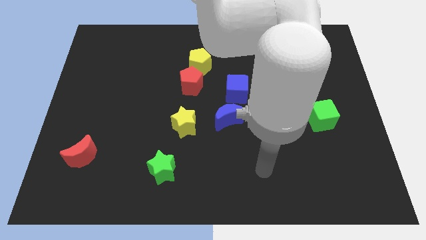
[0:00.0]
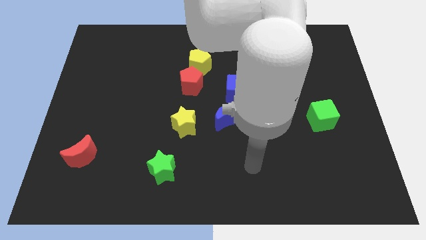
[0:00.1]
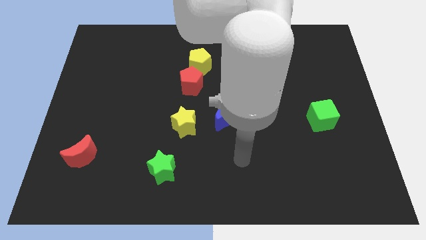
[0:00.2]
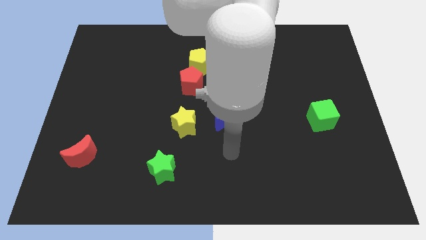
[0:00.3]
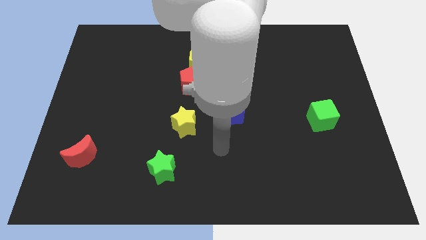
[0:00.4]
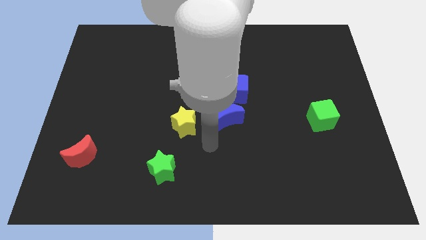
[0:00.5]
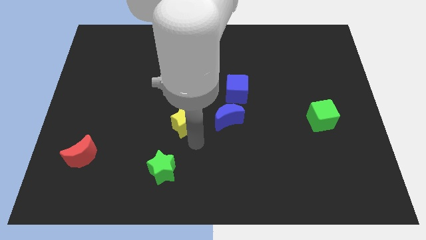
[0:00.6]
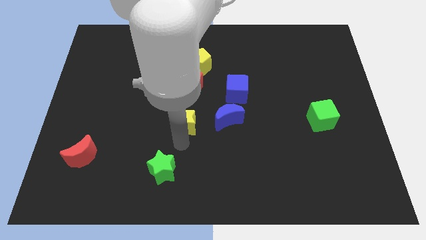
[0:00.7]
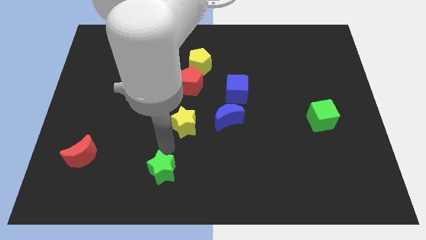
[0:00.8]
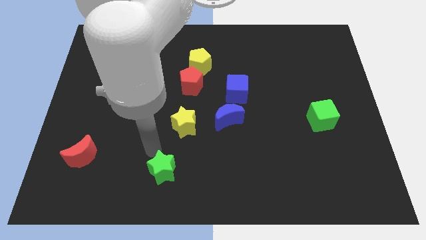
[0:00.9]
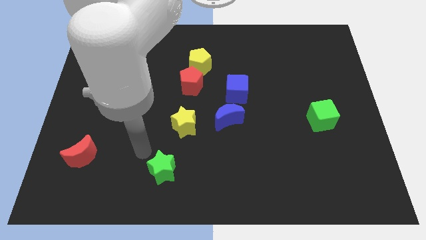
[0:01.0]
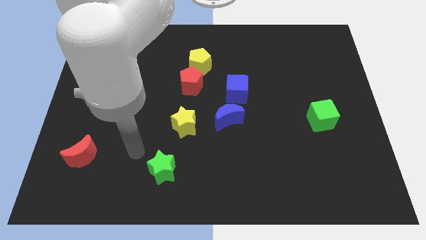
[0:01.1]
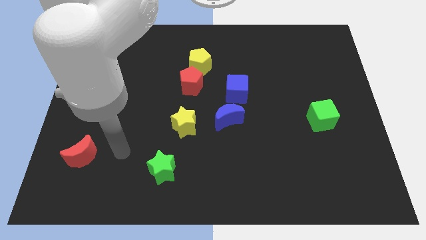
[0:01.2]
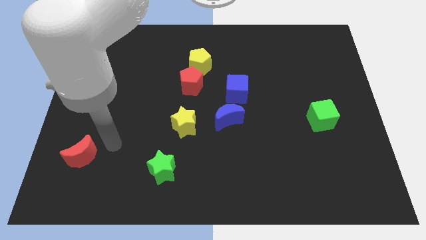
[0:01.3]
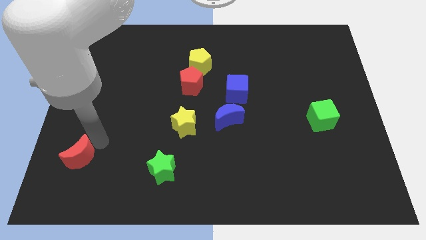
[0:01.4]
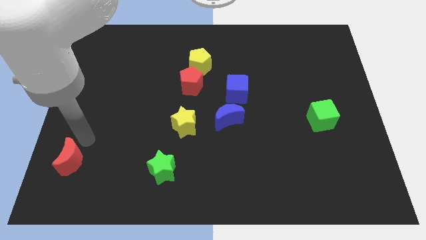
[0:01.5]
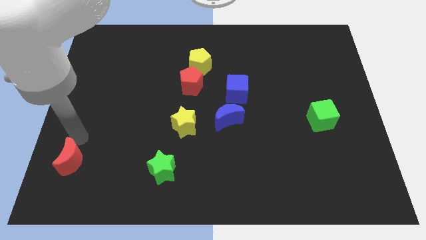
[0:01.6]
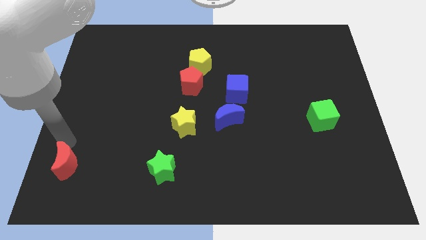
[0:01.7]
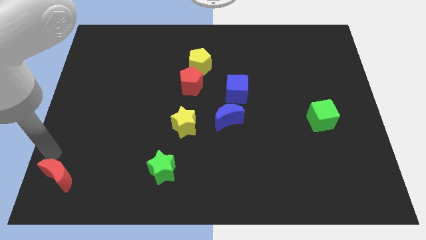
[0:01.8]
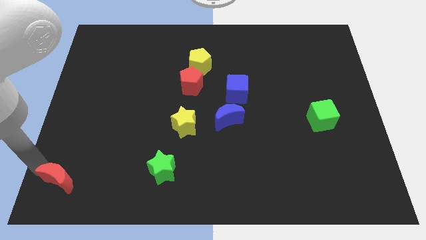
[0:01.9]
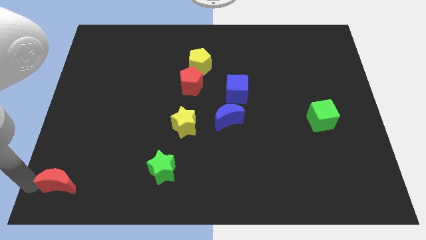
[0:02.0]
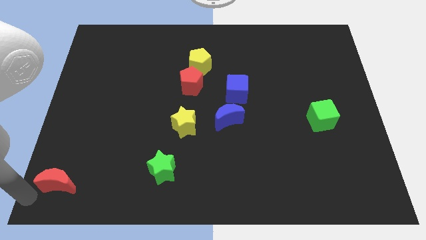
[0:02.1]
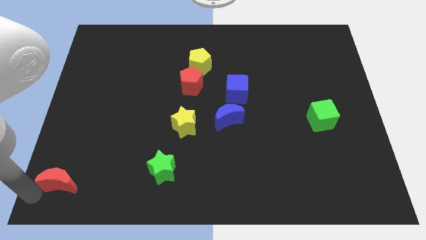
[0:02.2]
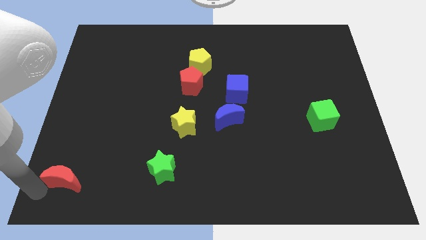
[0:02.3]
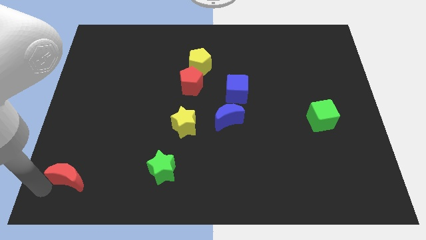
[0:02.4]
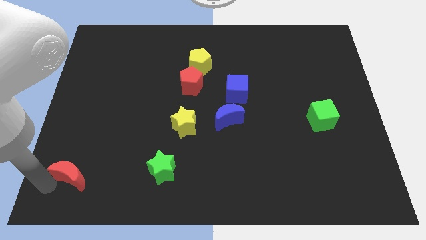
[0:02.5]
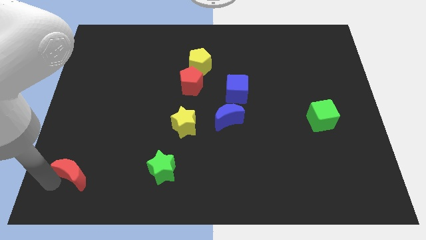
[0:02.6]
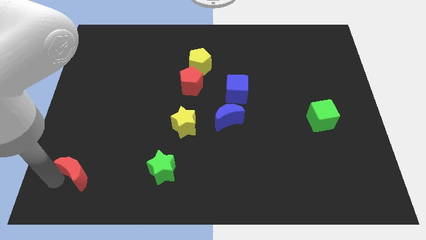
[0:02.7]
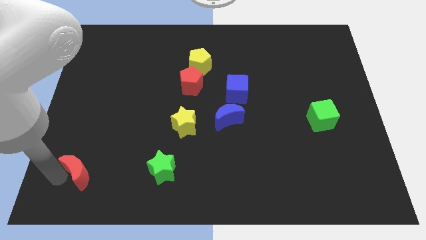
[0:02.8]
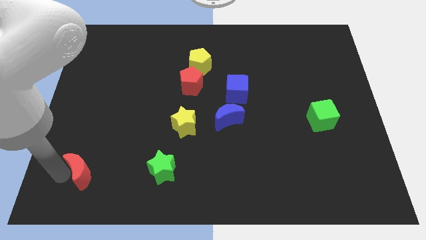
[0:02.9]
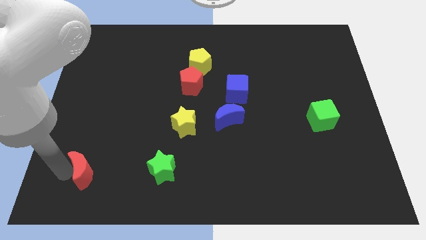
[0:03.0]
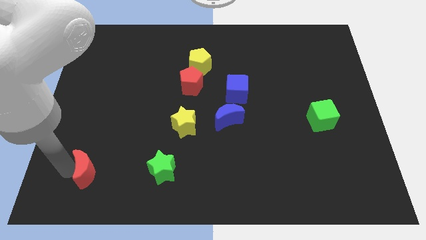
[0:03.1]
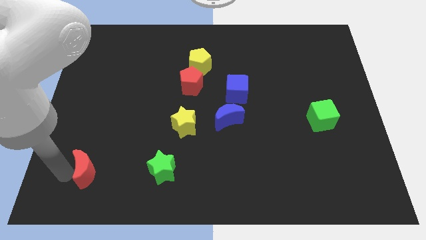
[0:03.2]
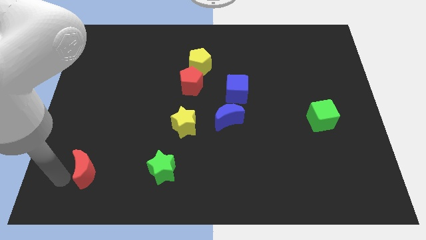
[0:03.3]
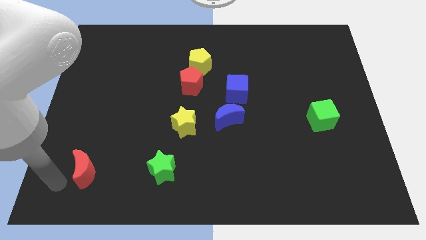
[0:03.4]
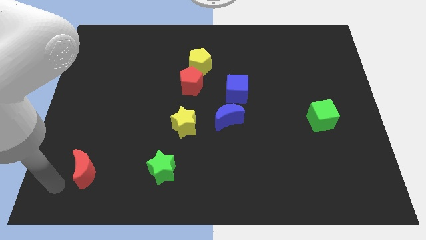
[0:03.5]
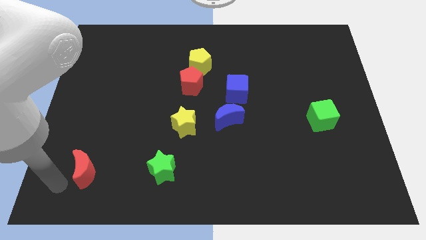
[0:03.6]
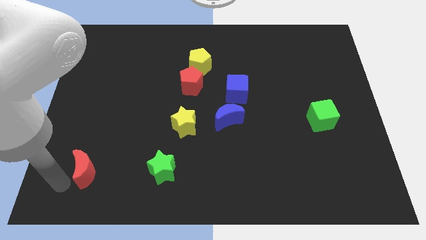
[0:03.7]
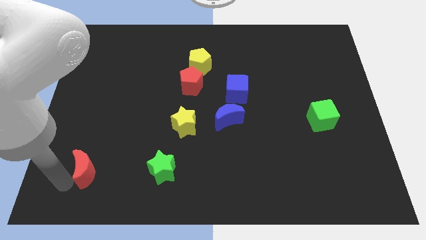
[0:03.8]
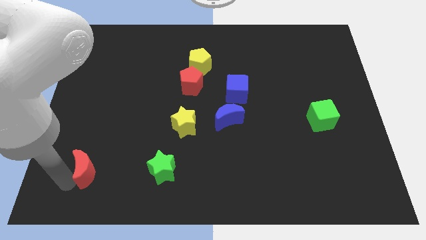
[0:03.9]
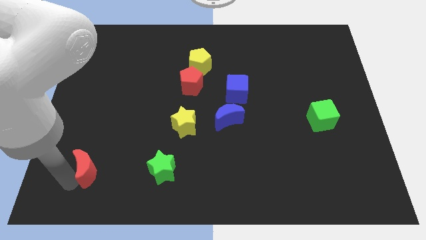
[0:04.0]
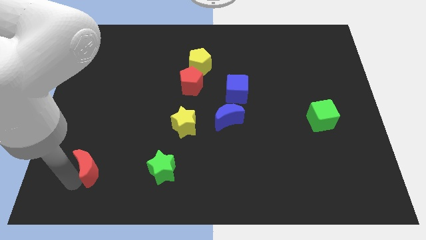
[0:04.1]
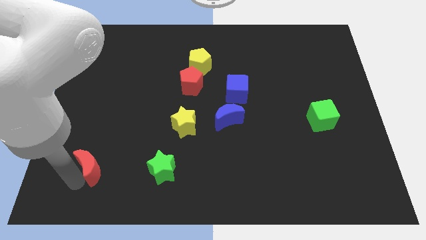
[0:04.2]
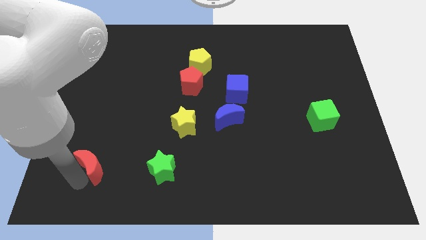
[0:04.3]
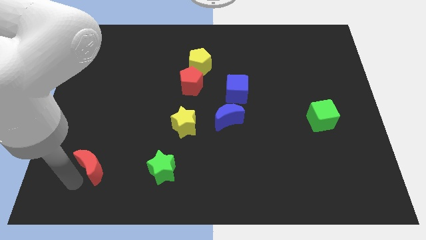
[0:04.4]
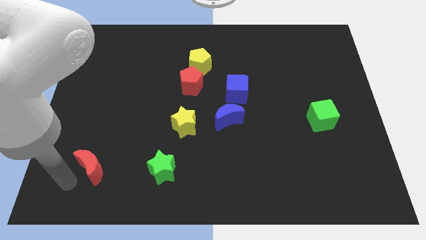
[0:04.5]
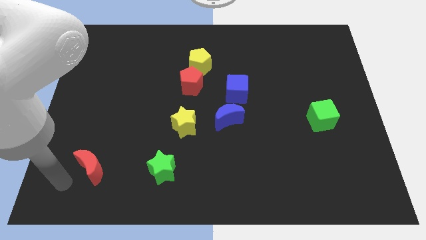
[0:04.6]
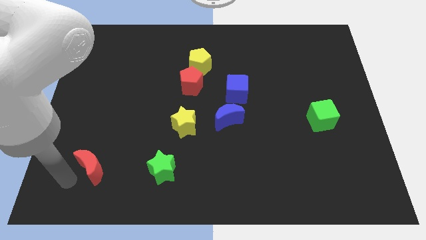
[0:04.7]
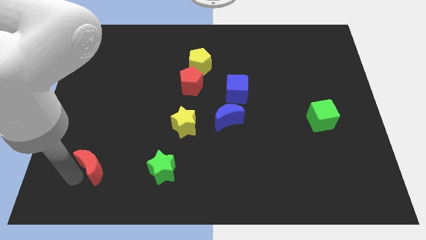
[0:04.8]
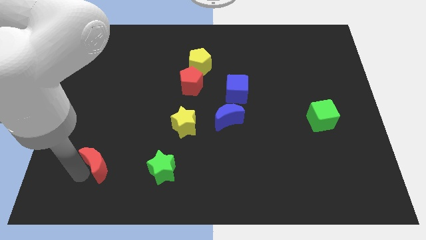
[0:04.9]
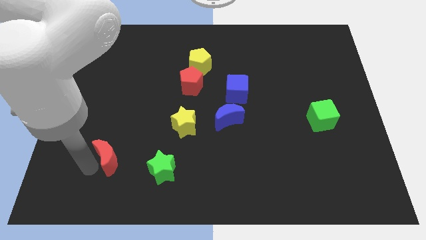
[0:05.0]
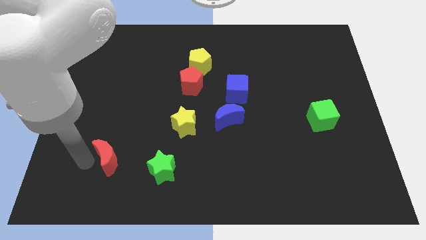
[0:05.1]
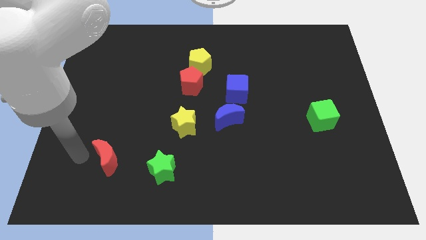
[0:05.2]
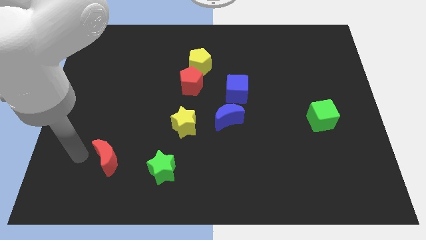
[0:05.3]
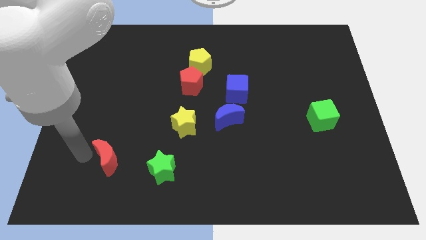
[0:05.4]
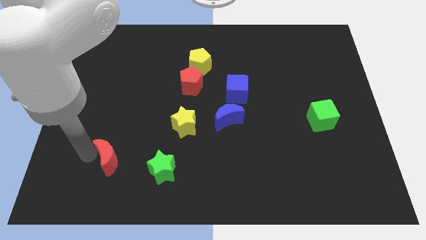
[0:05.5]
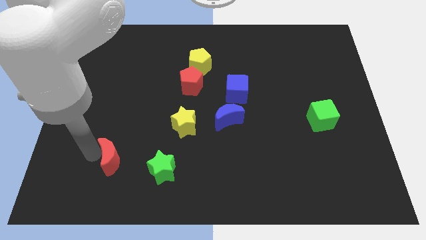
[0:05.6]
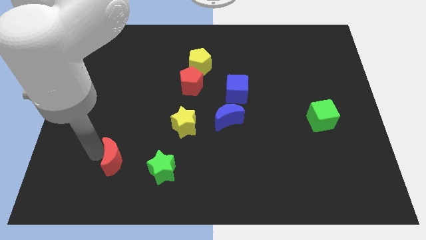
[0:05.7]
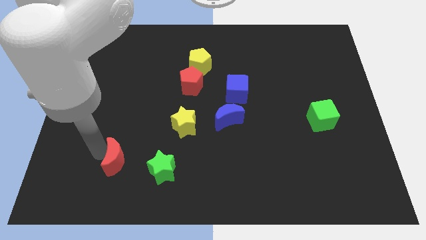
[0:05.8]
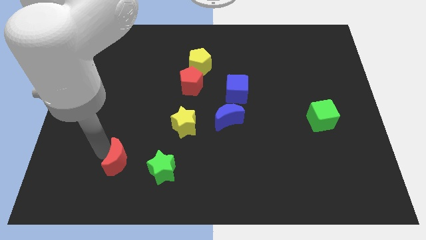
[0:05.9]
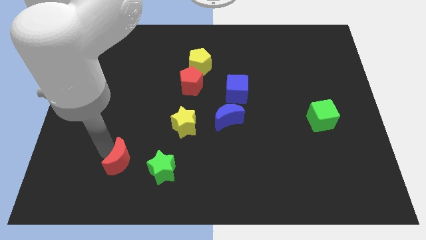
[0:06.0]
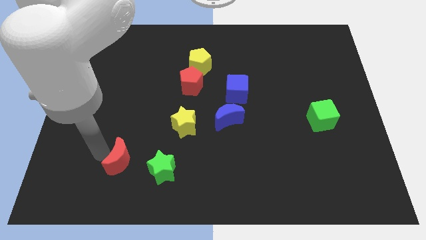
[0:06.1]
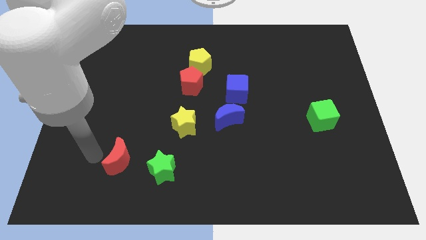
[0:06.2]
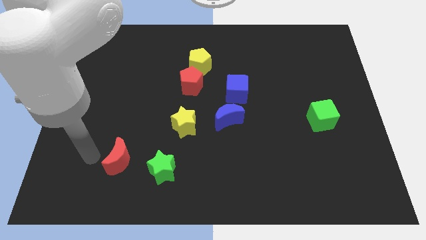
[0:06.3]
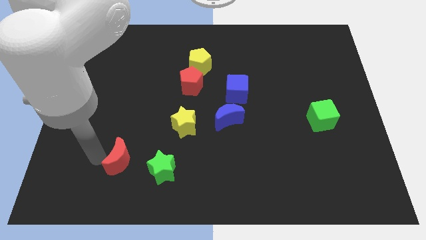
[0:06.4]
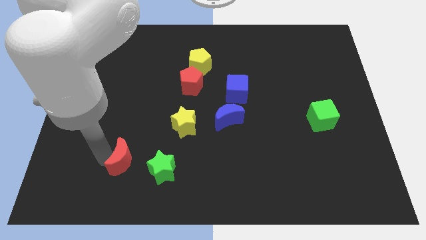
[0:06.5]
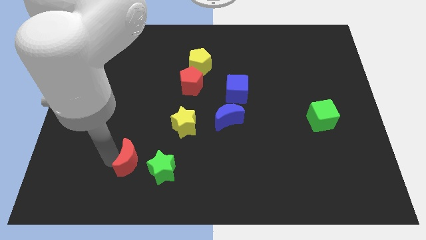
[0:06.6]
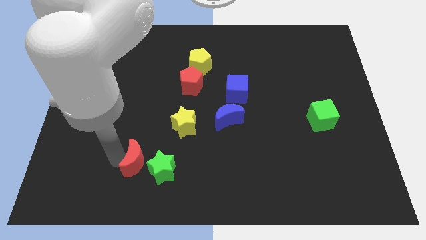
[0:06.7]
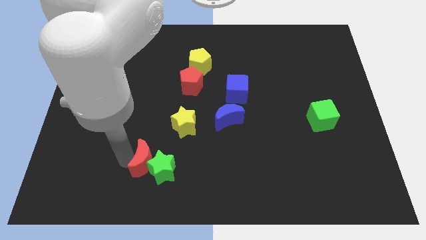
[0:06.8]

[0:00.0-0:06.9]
push the red moon towards the green star
